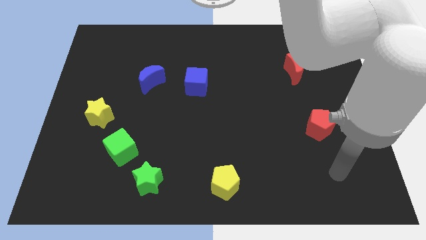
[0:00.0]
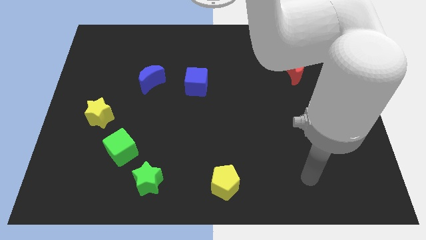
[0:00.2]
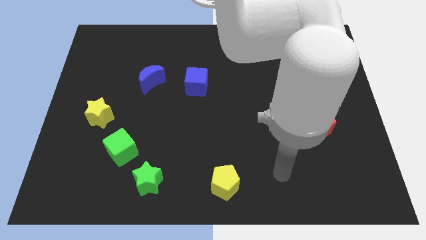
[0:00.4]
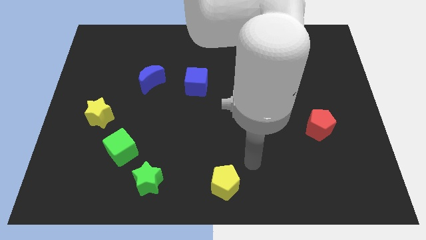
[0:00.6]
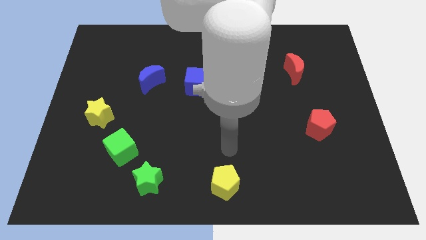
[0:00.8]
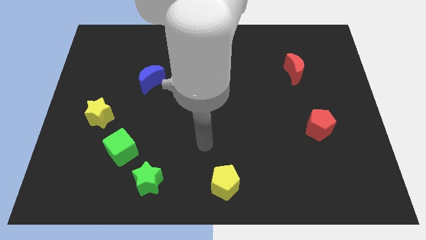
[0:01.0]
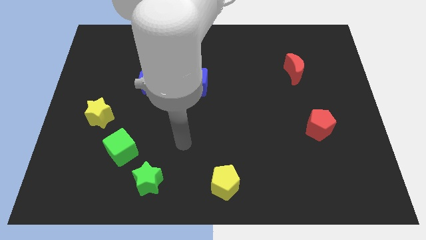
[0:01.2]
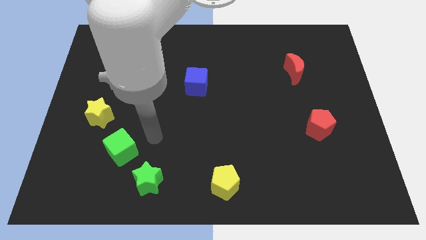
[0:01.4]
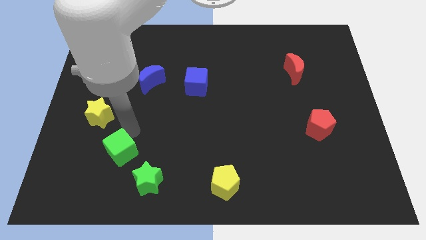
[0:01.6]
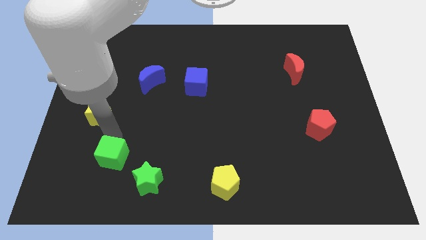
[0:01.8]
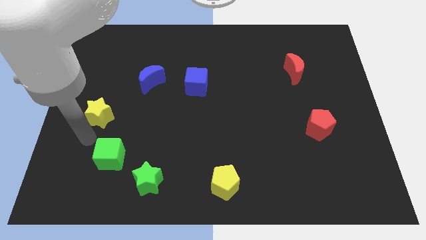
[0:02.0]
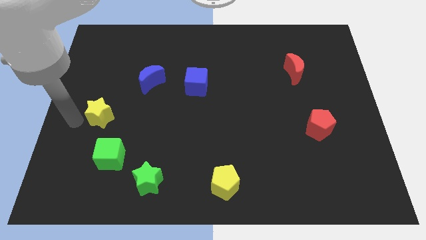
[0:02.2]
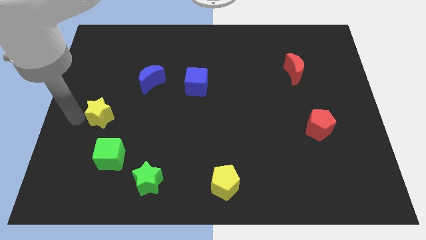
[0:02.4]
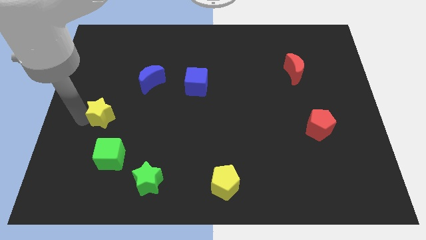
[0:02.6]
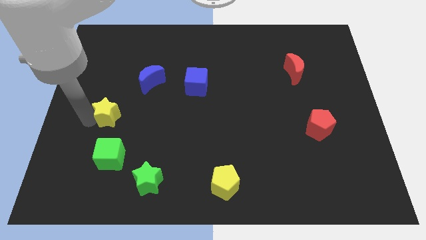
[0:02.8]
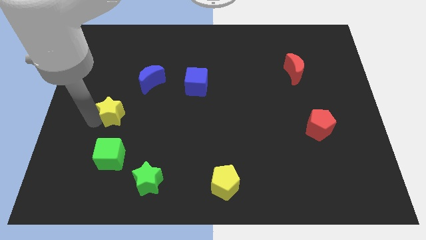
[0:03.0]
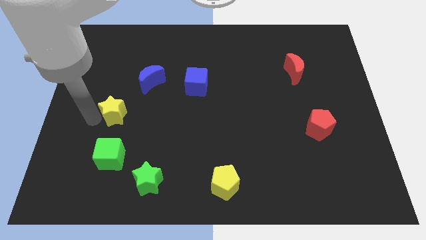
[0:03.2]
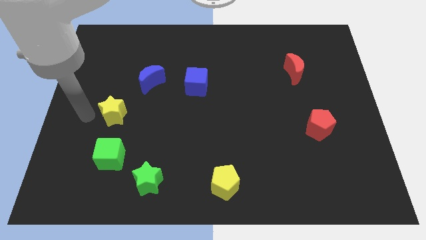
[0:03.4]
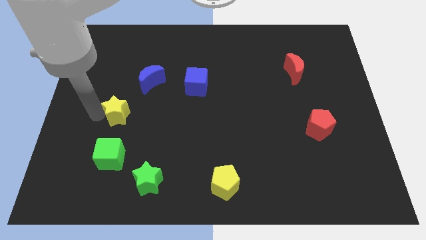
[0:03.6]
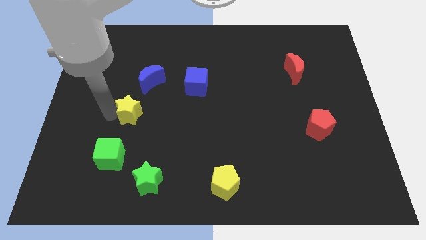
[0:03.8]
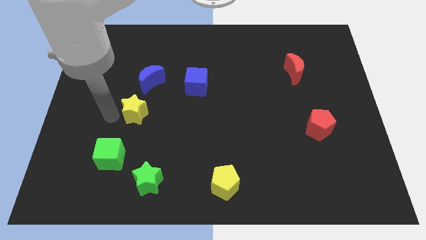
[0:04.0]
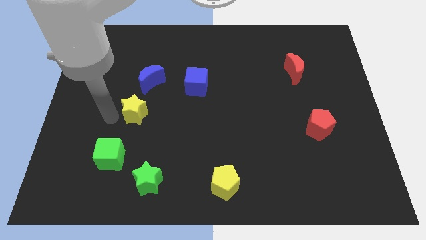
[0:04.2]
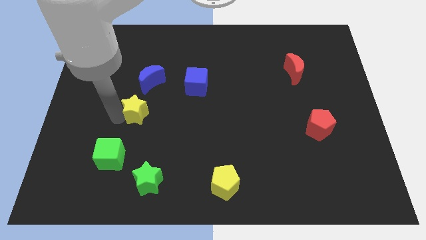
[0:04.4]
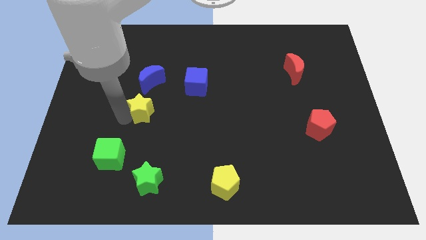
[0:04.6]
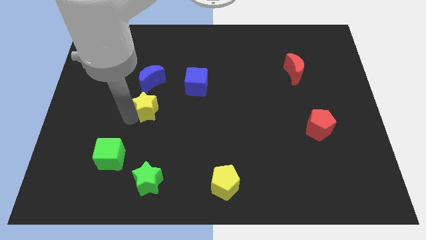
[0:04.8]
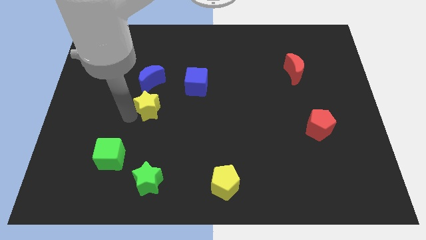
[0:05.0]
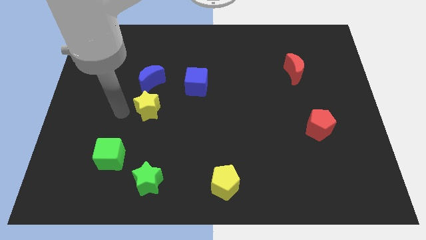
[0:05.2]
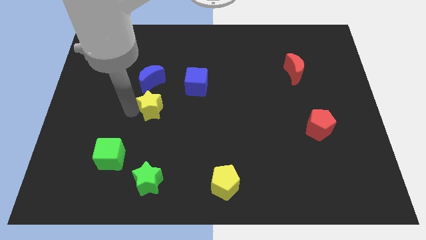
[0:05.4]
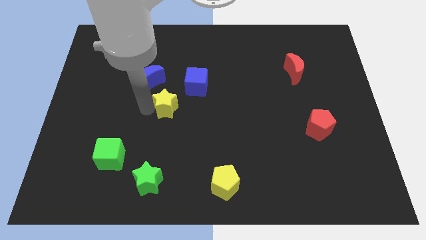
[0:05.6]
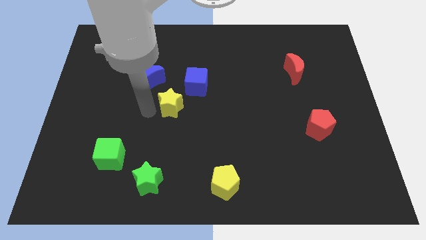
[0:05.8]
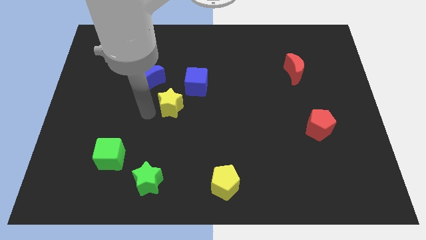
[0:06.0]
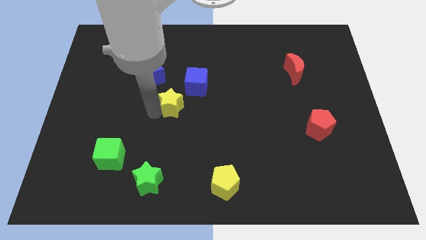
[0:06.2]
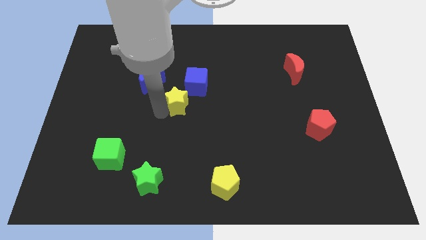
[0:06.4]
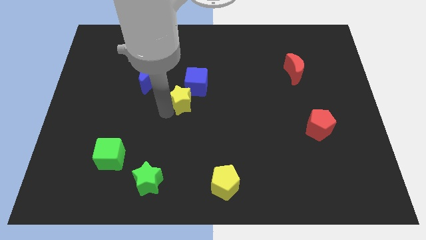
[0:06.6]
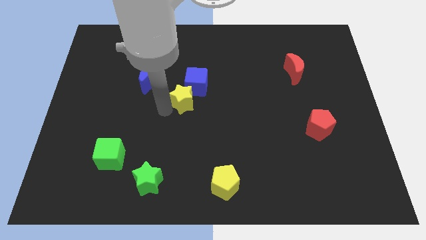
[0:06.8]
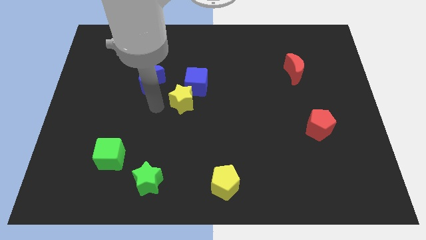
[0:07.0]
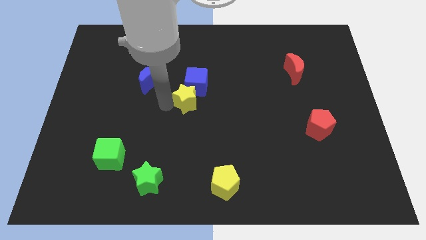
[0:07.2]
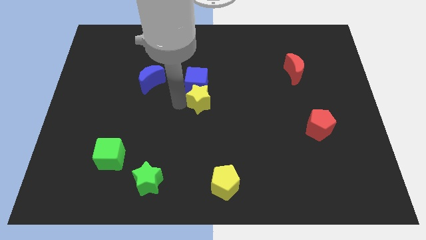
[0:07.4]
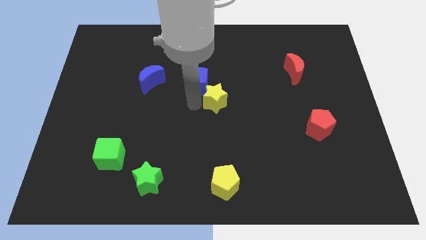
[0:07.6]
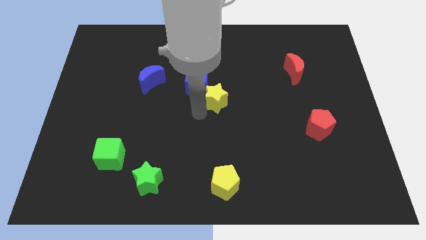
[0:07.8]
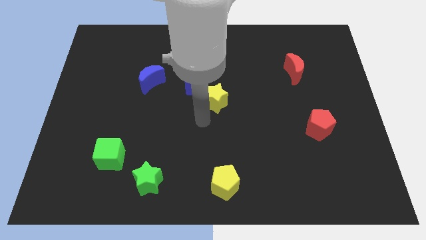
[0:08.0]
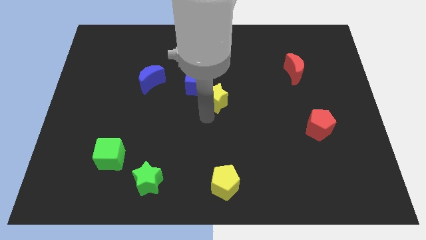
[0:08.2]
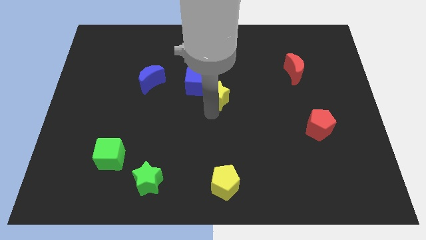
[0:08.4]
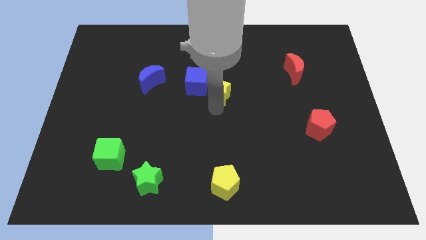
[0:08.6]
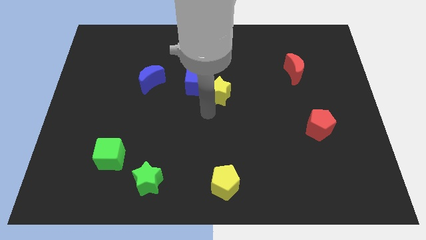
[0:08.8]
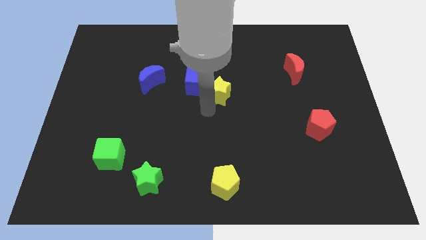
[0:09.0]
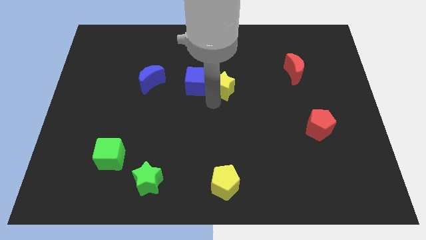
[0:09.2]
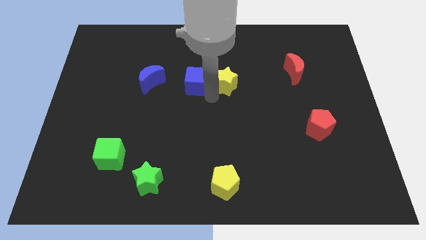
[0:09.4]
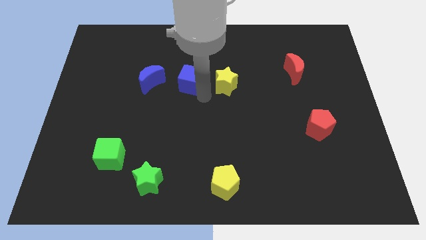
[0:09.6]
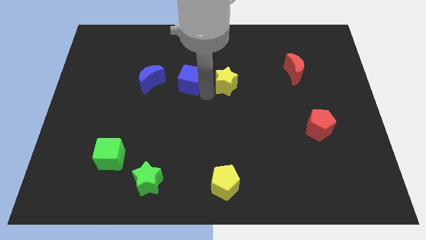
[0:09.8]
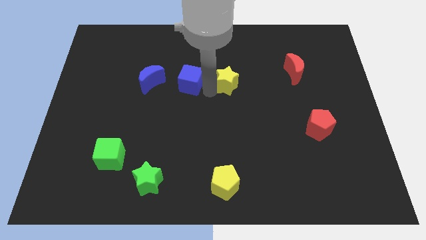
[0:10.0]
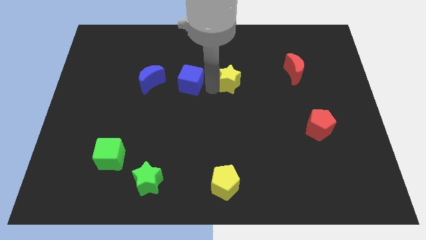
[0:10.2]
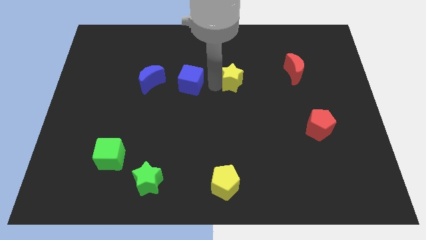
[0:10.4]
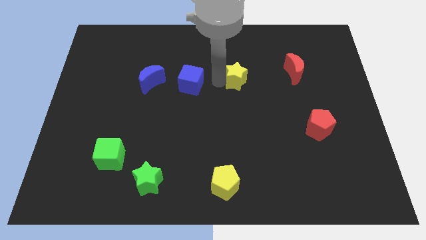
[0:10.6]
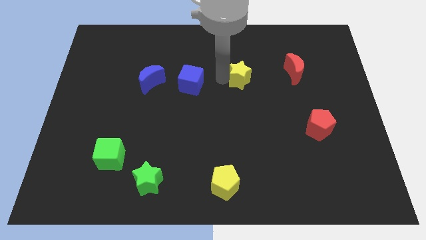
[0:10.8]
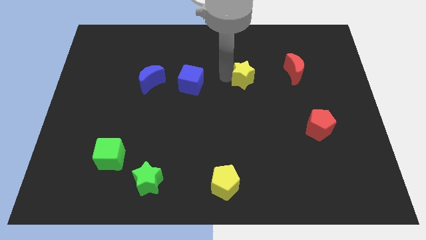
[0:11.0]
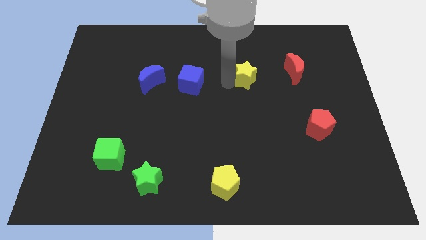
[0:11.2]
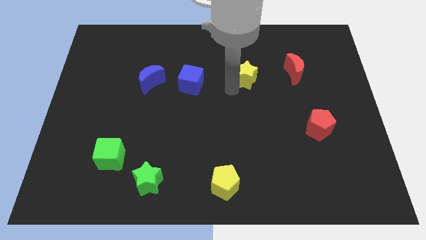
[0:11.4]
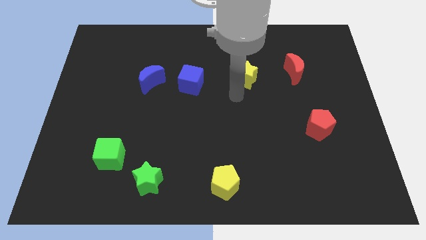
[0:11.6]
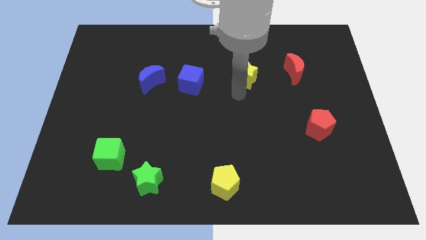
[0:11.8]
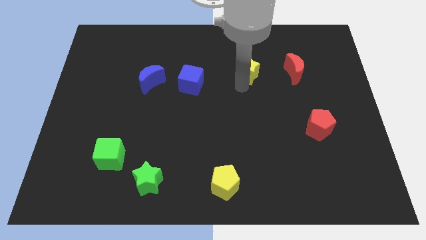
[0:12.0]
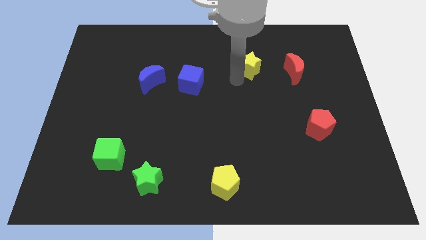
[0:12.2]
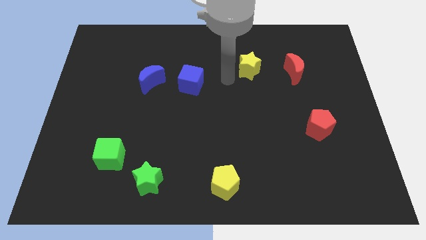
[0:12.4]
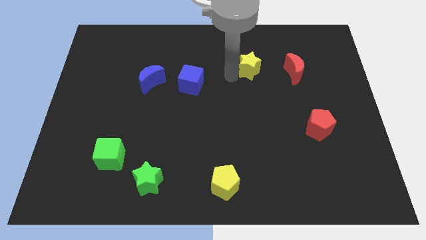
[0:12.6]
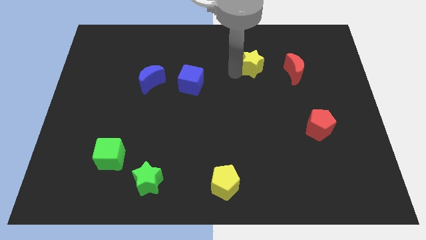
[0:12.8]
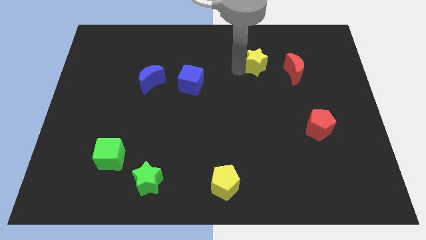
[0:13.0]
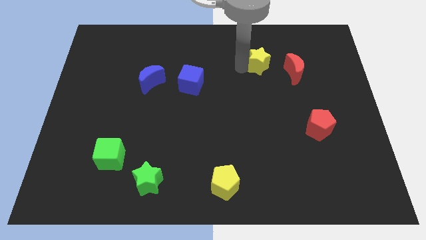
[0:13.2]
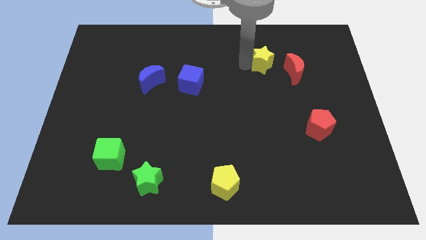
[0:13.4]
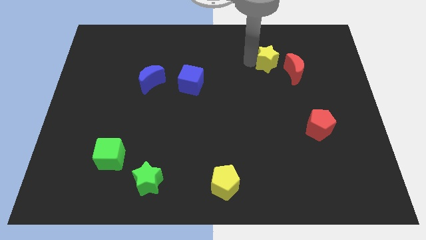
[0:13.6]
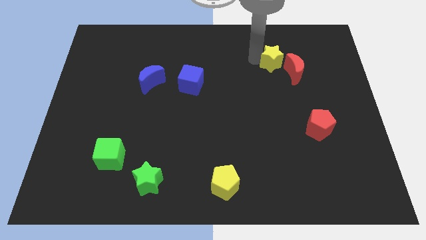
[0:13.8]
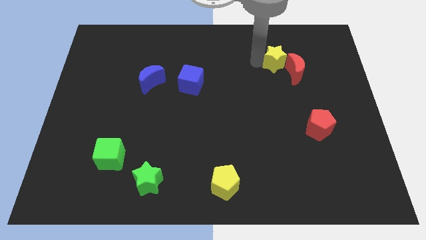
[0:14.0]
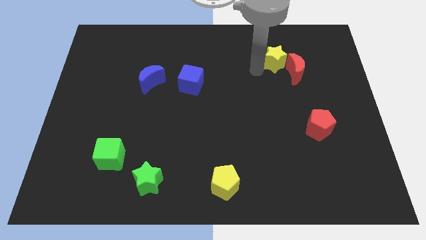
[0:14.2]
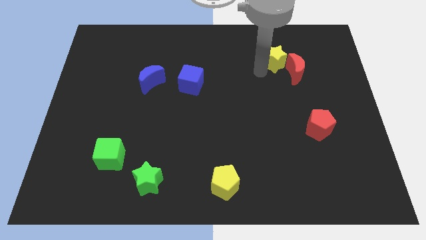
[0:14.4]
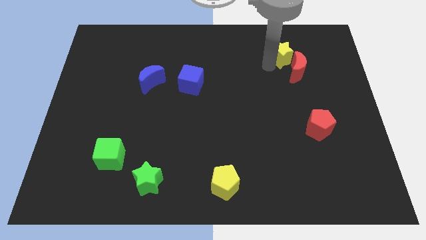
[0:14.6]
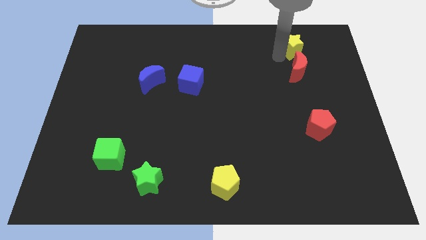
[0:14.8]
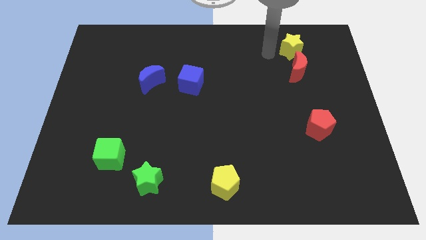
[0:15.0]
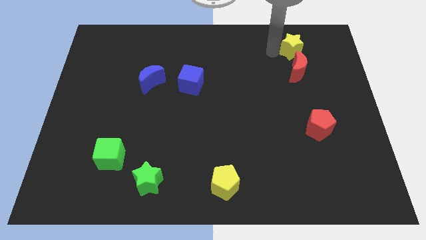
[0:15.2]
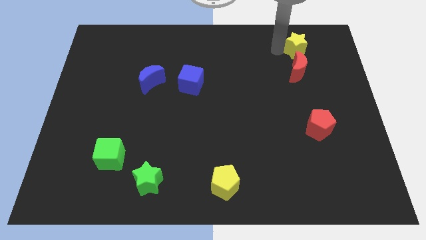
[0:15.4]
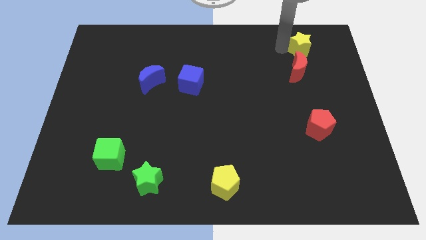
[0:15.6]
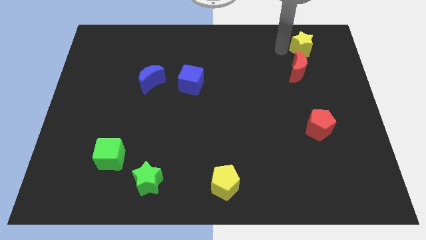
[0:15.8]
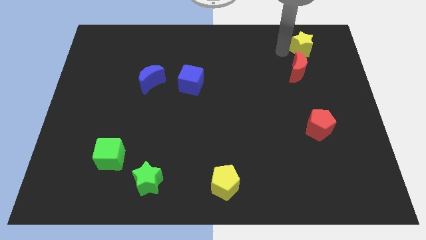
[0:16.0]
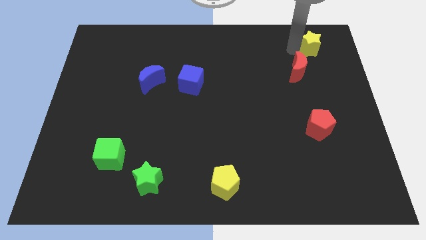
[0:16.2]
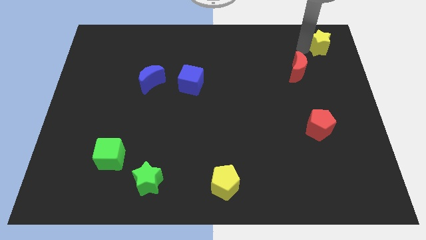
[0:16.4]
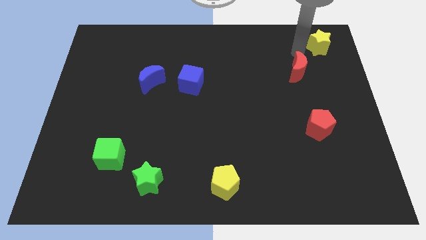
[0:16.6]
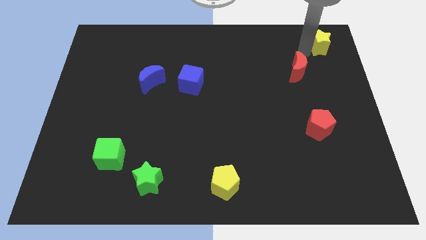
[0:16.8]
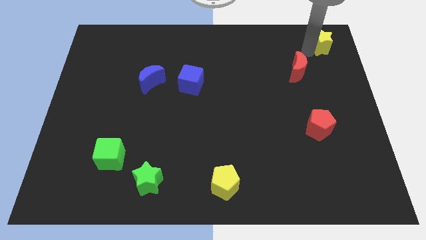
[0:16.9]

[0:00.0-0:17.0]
slide the yellow star to the upper right corner
